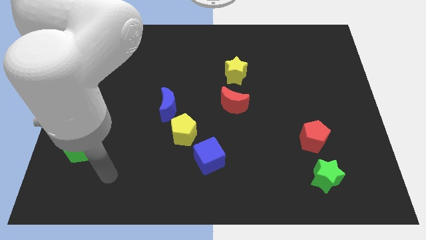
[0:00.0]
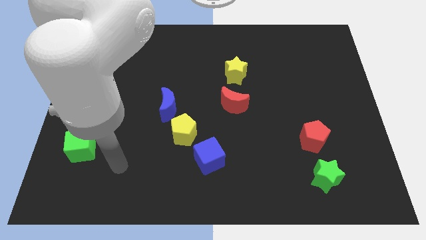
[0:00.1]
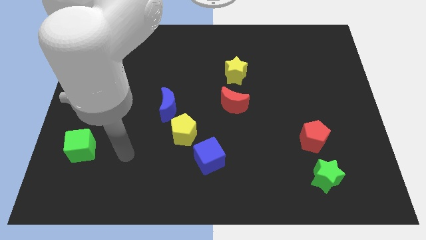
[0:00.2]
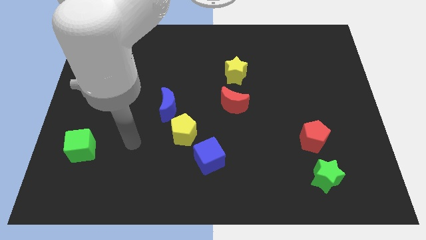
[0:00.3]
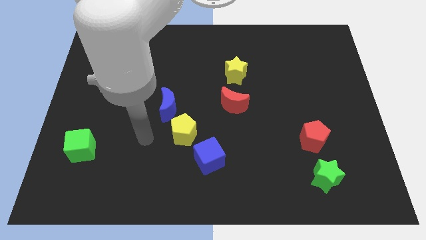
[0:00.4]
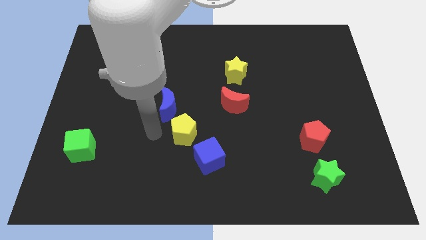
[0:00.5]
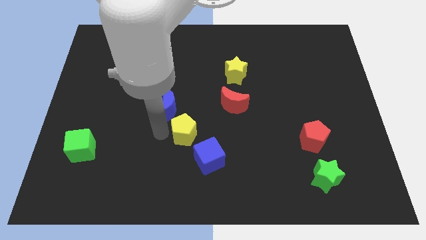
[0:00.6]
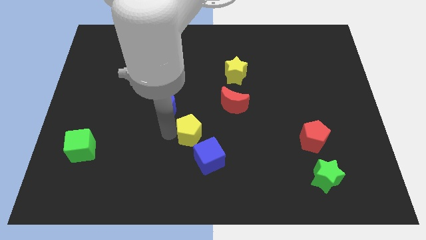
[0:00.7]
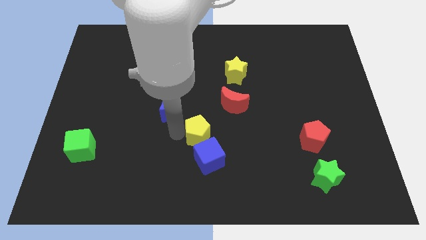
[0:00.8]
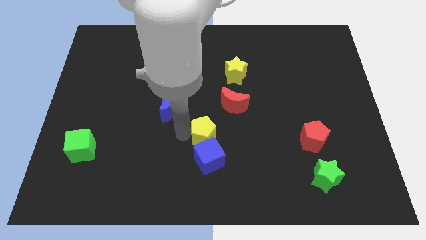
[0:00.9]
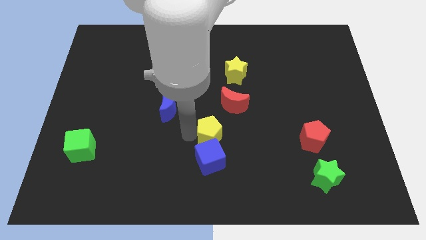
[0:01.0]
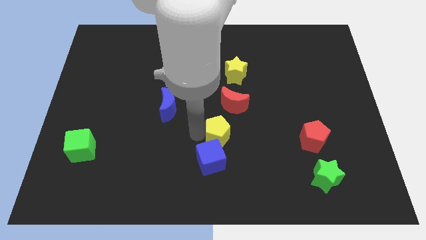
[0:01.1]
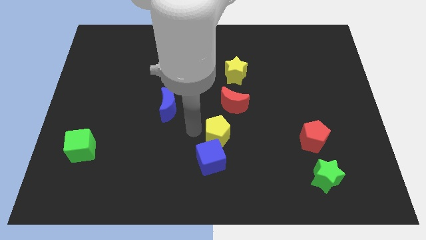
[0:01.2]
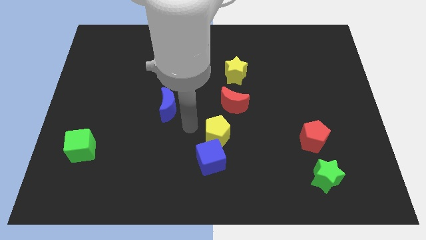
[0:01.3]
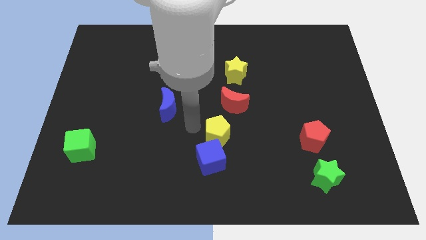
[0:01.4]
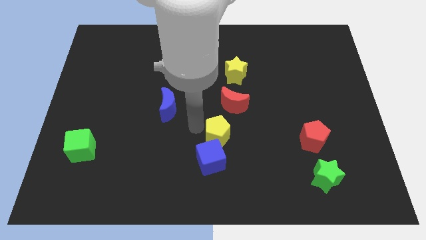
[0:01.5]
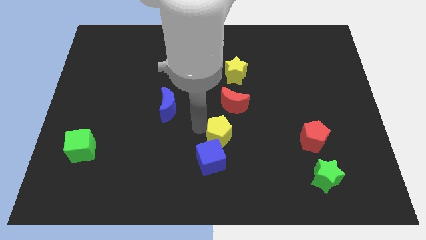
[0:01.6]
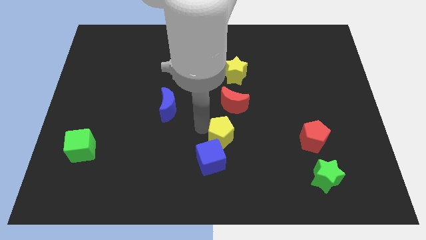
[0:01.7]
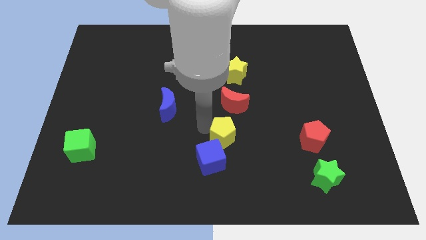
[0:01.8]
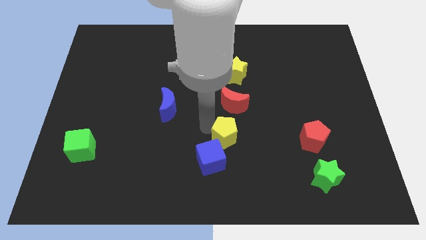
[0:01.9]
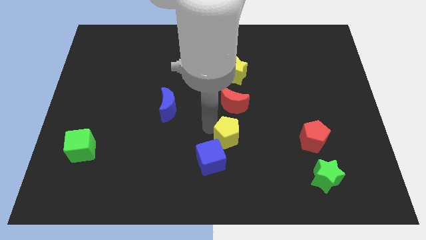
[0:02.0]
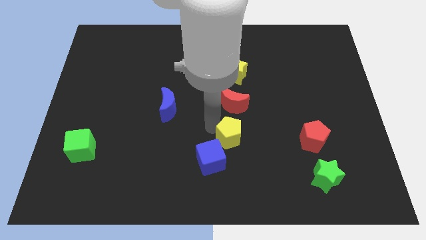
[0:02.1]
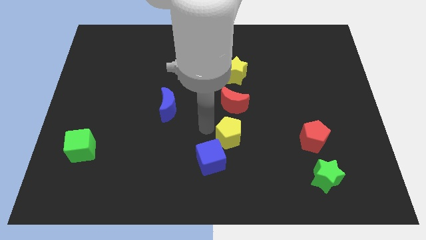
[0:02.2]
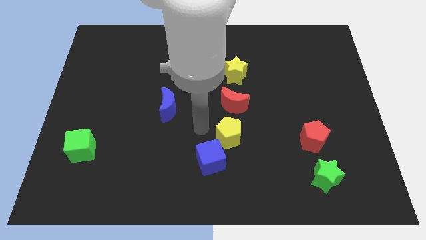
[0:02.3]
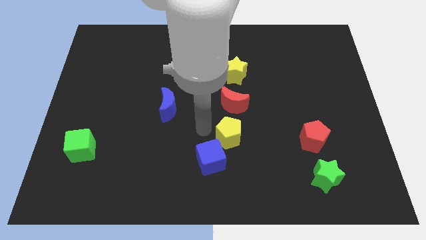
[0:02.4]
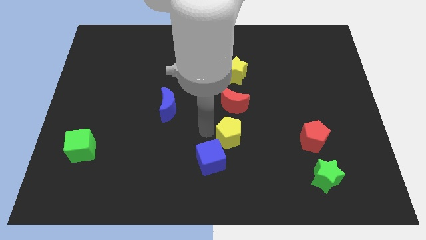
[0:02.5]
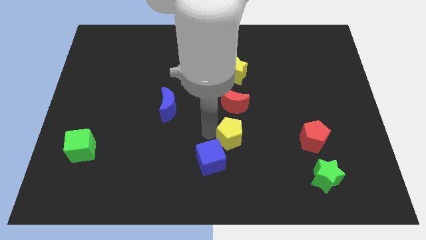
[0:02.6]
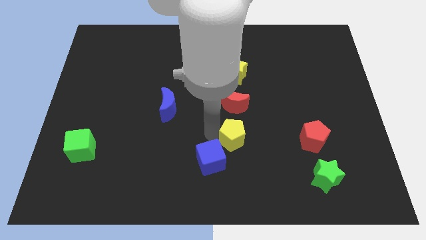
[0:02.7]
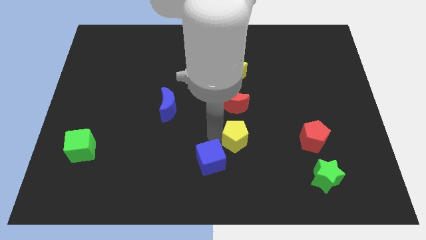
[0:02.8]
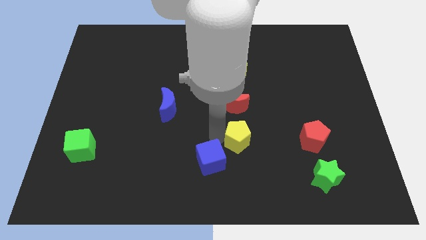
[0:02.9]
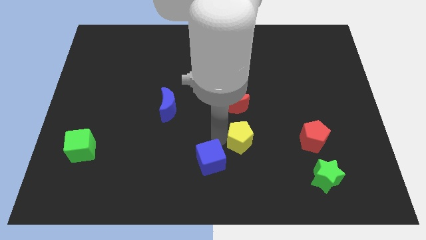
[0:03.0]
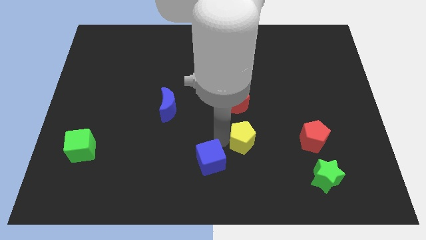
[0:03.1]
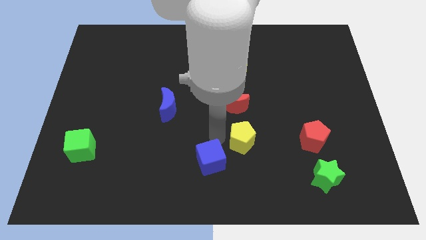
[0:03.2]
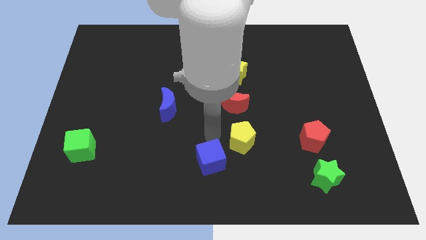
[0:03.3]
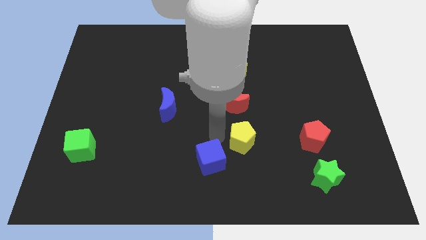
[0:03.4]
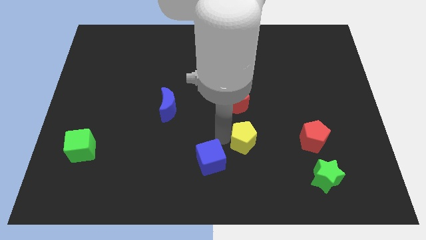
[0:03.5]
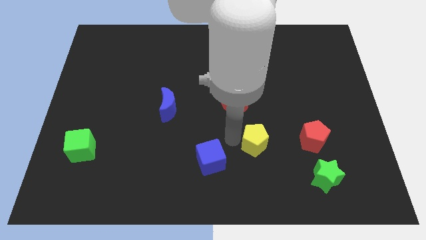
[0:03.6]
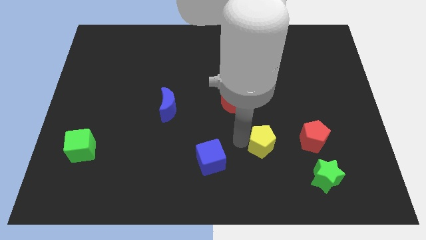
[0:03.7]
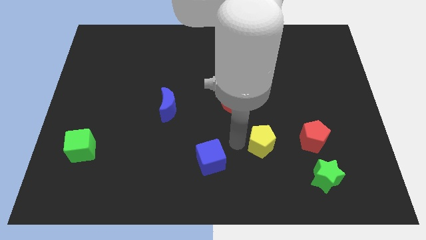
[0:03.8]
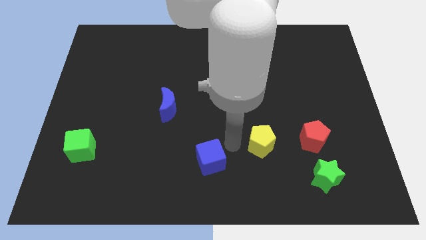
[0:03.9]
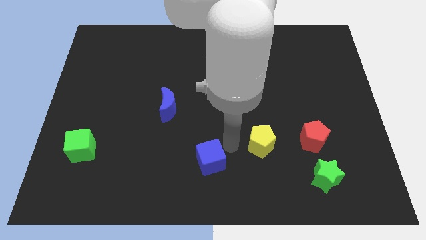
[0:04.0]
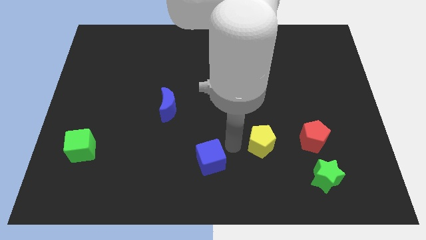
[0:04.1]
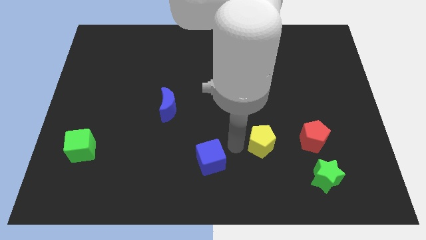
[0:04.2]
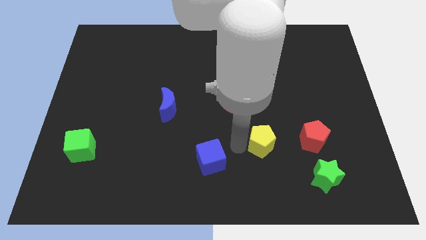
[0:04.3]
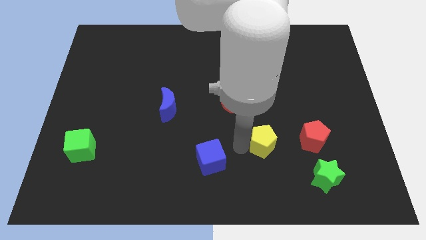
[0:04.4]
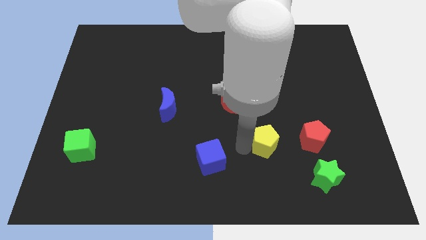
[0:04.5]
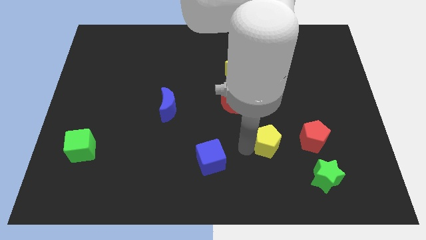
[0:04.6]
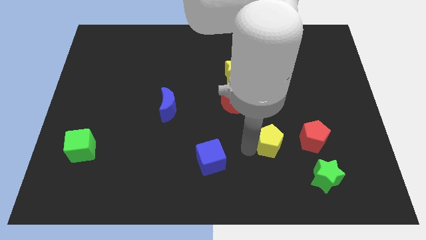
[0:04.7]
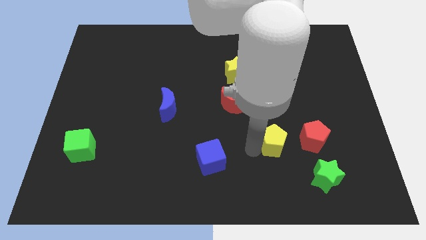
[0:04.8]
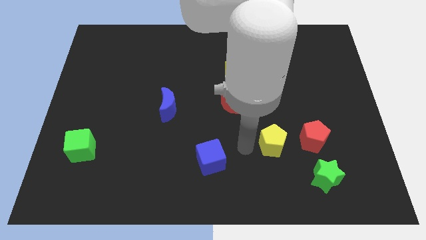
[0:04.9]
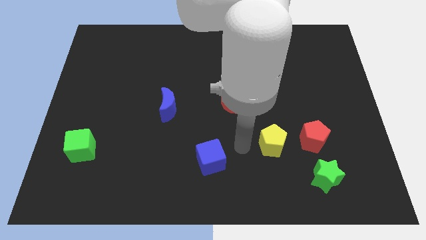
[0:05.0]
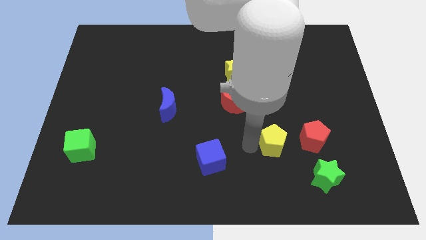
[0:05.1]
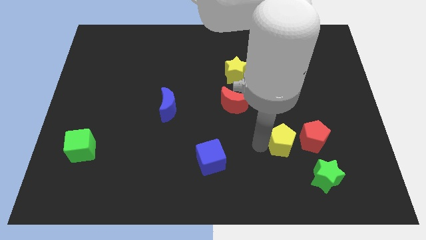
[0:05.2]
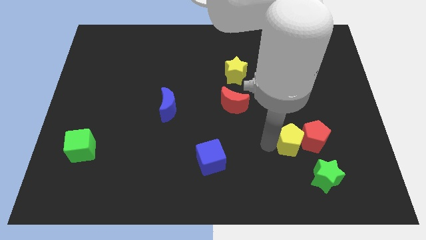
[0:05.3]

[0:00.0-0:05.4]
push the yellow pentagon to the red pentagon

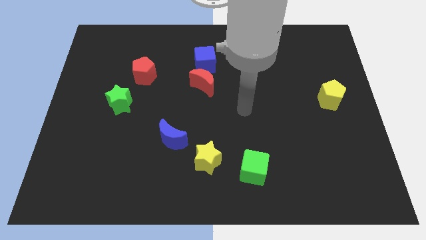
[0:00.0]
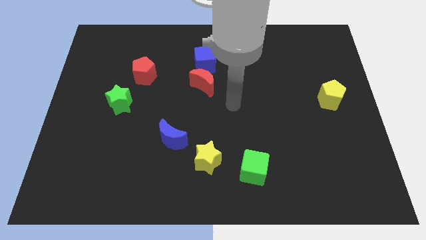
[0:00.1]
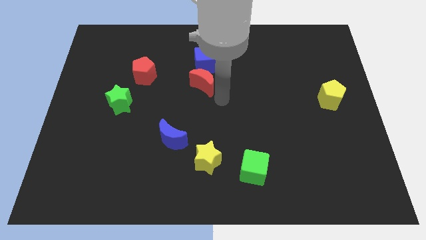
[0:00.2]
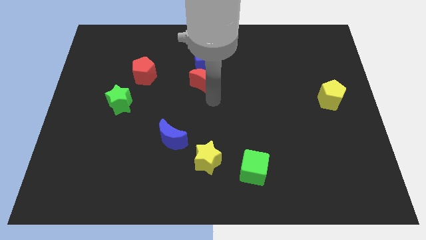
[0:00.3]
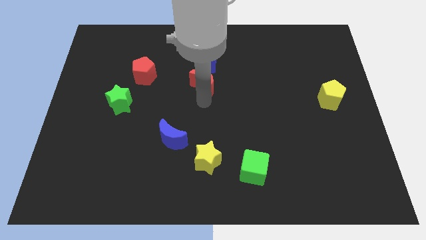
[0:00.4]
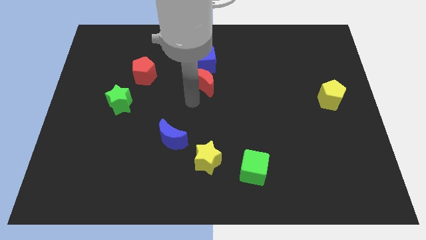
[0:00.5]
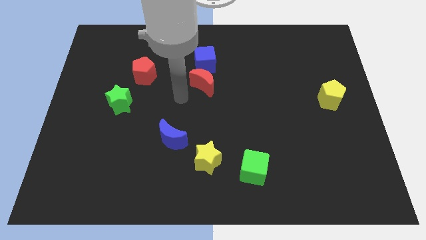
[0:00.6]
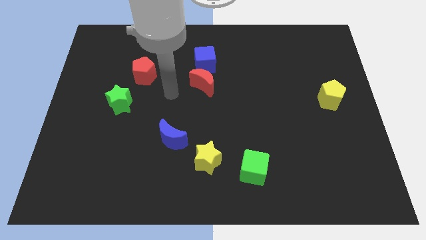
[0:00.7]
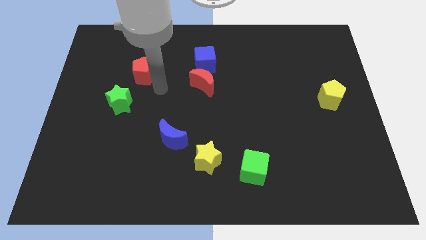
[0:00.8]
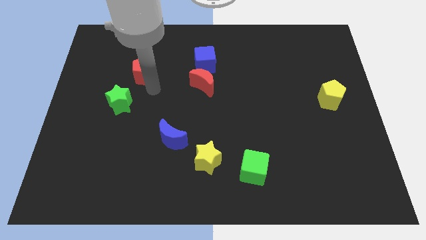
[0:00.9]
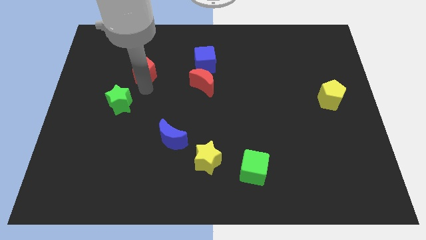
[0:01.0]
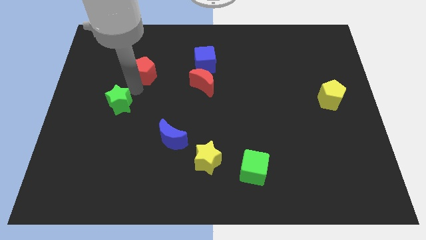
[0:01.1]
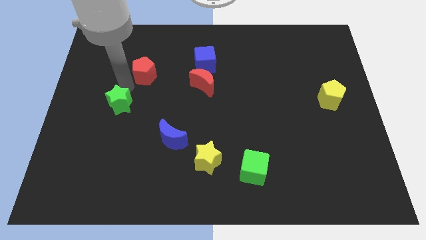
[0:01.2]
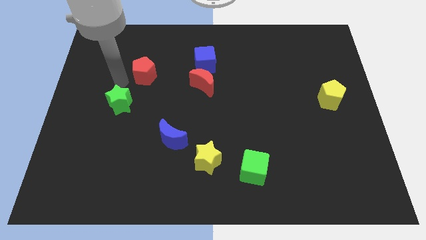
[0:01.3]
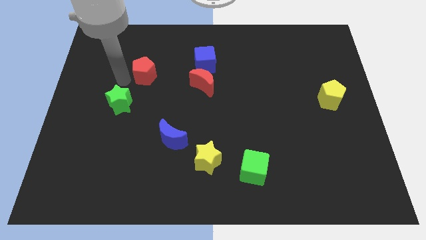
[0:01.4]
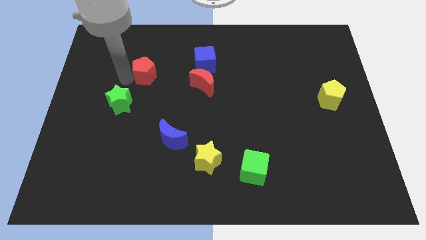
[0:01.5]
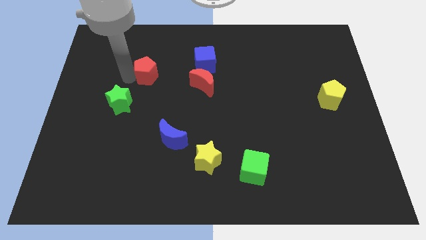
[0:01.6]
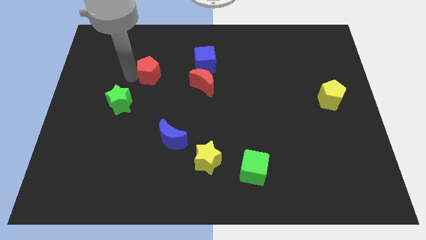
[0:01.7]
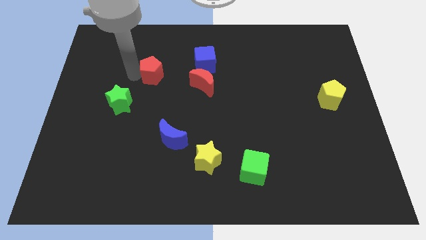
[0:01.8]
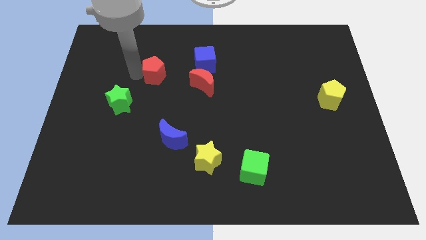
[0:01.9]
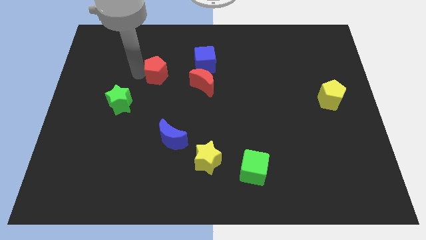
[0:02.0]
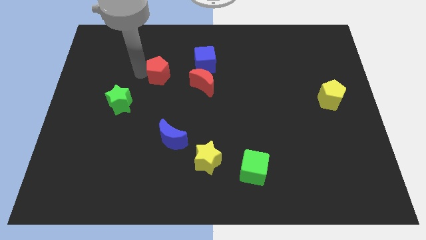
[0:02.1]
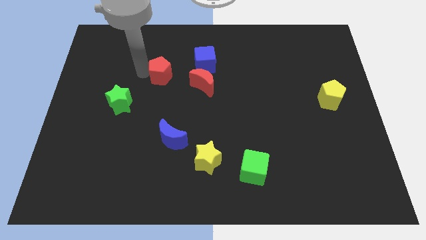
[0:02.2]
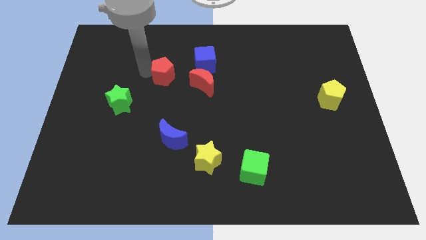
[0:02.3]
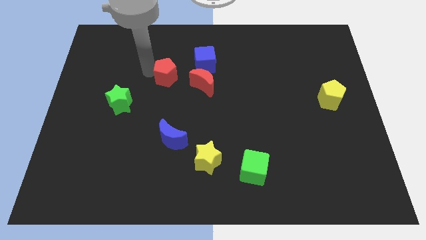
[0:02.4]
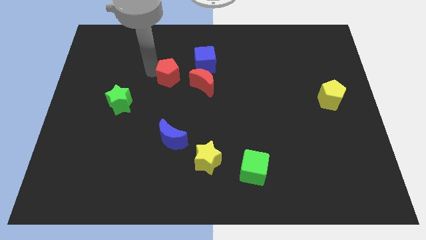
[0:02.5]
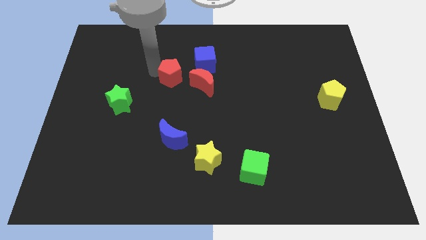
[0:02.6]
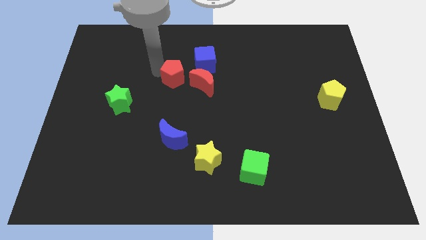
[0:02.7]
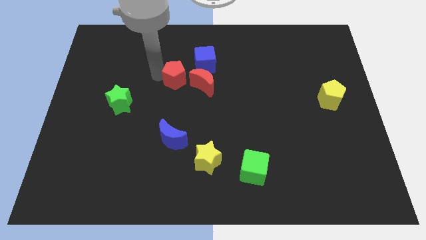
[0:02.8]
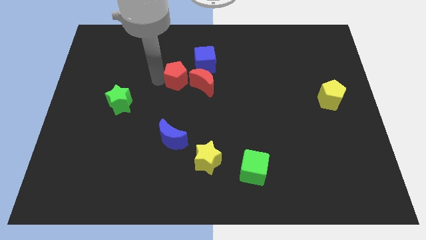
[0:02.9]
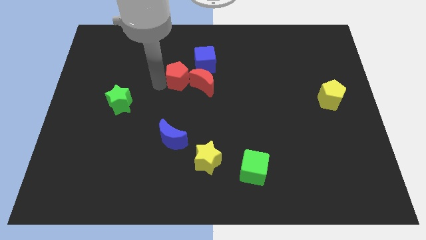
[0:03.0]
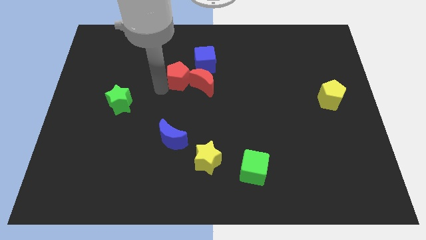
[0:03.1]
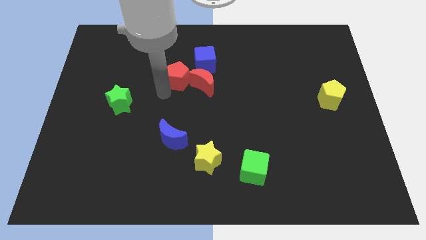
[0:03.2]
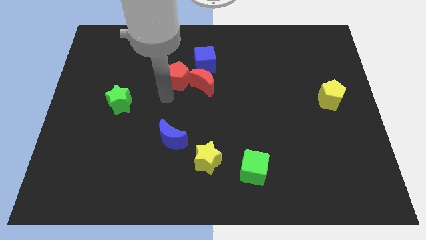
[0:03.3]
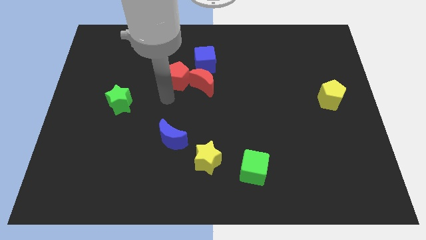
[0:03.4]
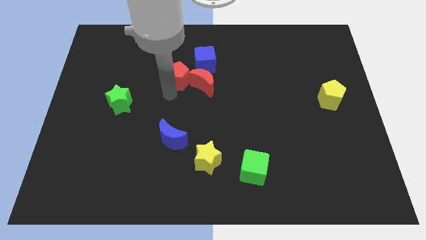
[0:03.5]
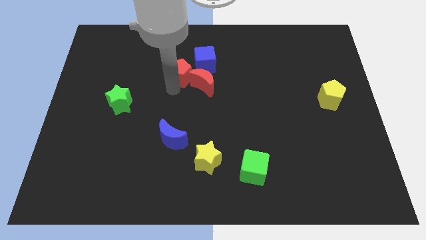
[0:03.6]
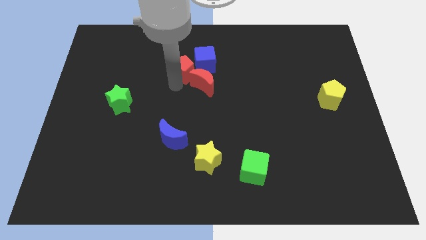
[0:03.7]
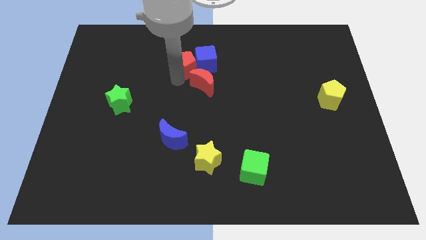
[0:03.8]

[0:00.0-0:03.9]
slide the red pentagon close to the blue cube
